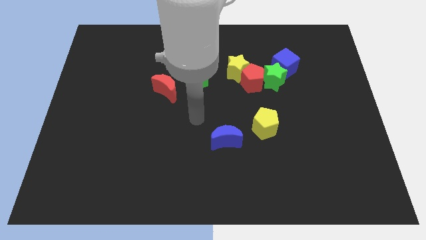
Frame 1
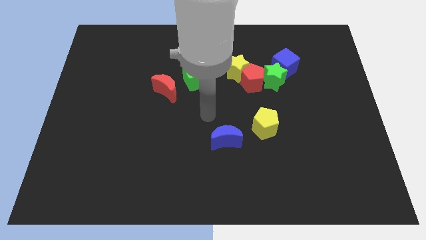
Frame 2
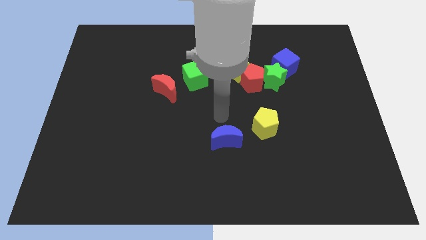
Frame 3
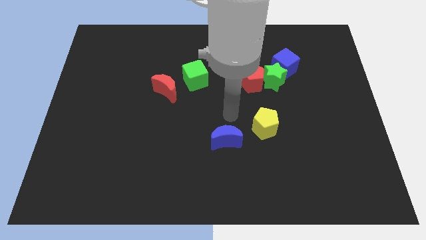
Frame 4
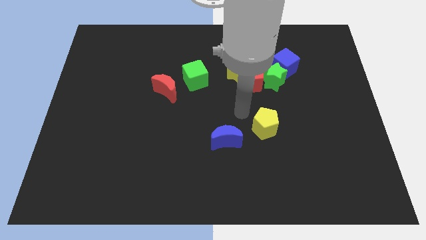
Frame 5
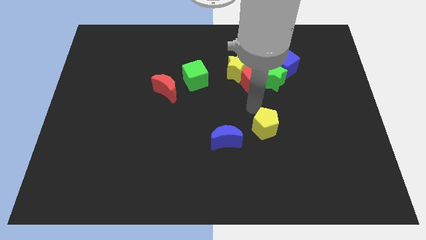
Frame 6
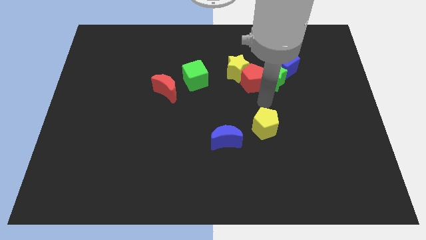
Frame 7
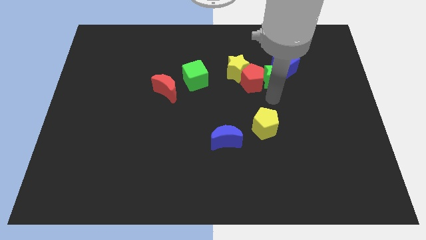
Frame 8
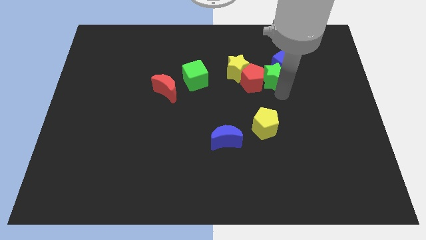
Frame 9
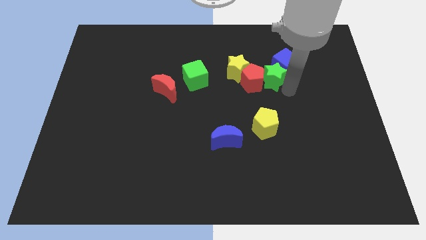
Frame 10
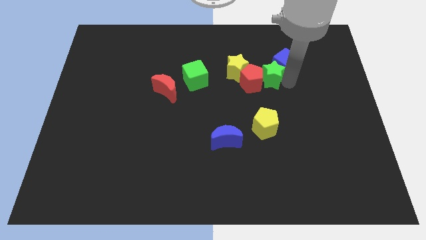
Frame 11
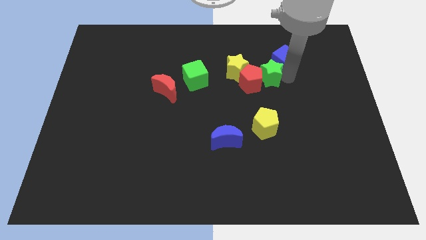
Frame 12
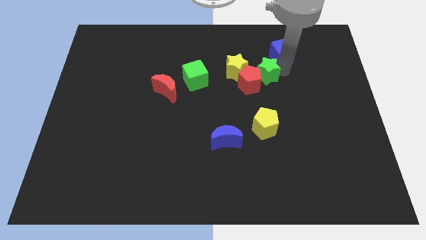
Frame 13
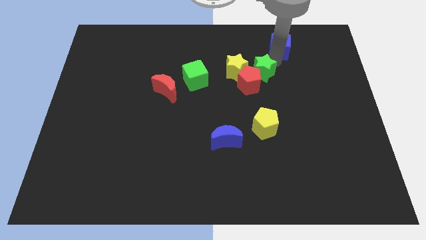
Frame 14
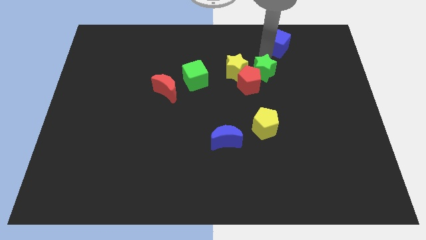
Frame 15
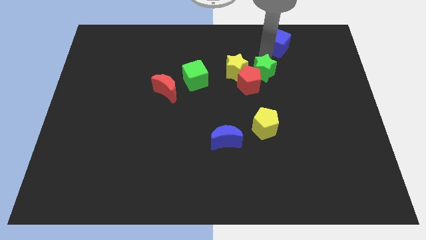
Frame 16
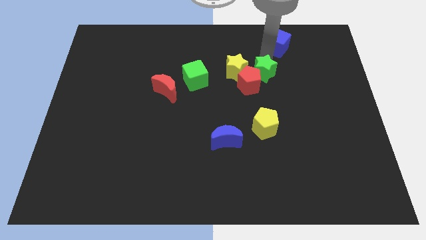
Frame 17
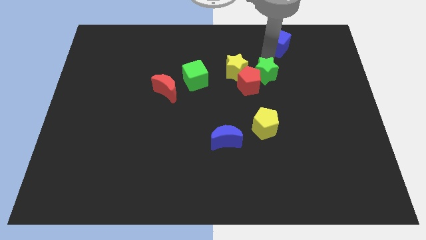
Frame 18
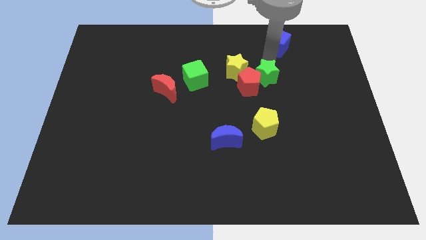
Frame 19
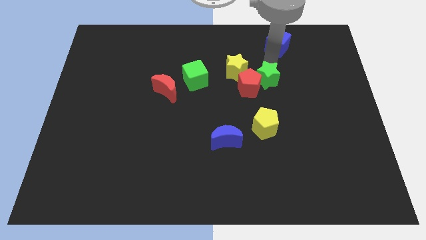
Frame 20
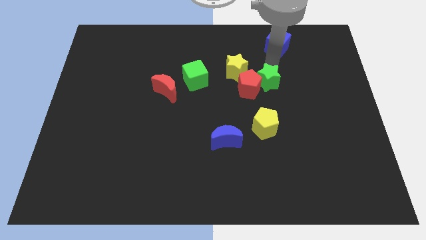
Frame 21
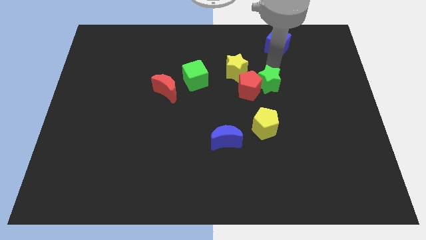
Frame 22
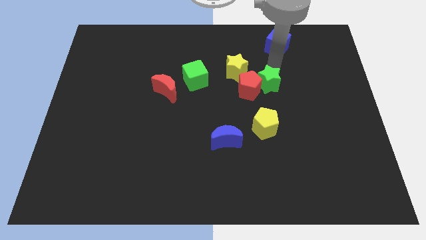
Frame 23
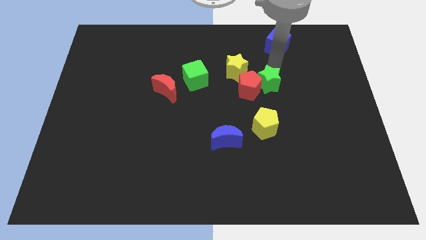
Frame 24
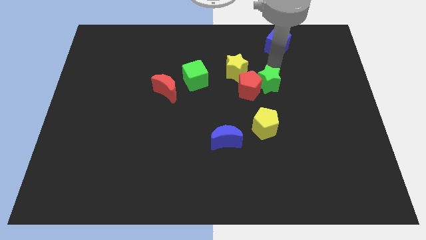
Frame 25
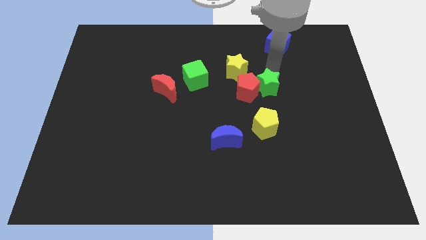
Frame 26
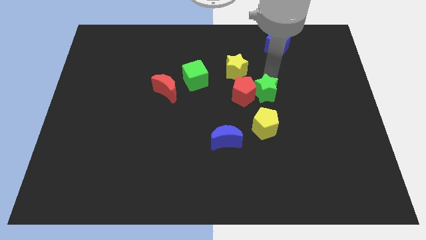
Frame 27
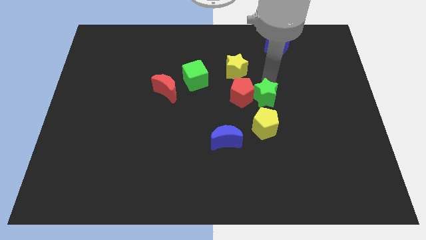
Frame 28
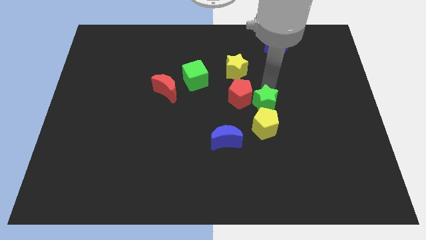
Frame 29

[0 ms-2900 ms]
slide the green star slightly downwards and left

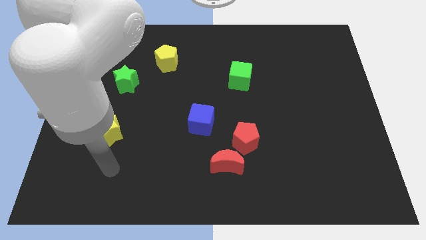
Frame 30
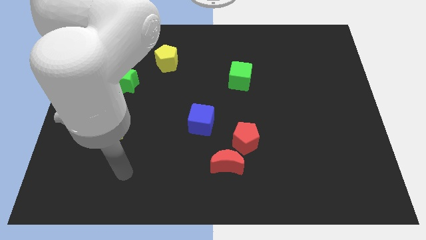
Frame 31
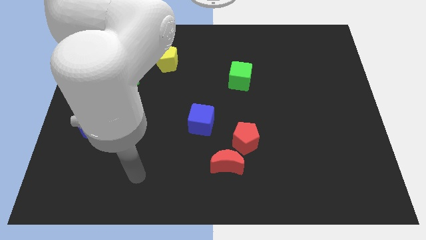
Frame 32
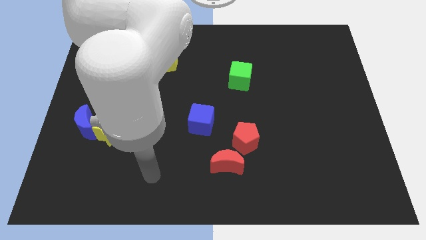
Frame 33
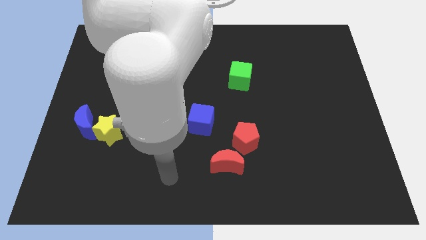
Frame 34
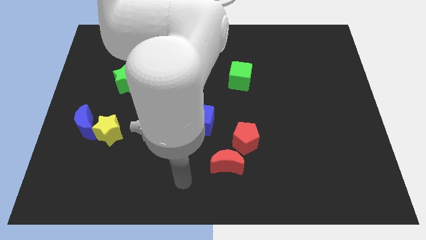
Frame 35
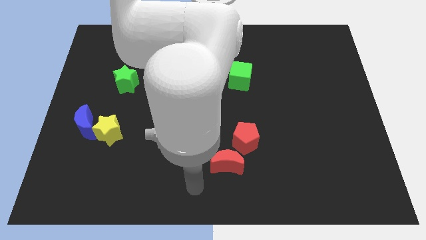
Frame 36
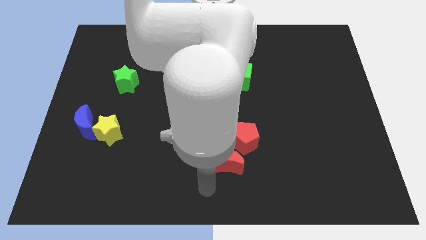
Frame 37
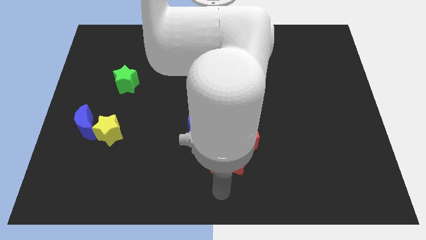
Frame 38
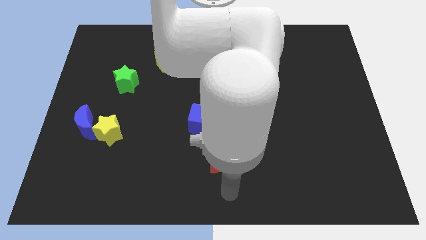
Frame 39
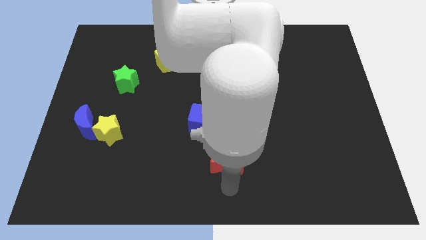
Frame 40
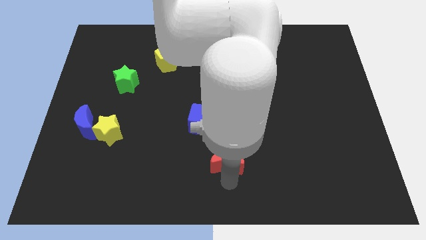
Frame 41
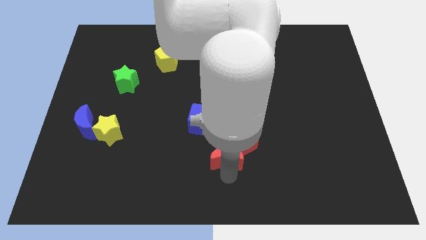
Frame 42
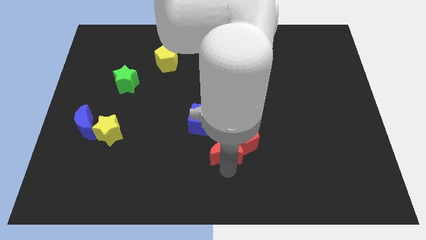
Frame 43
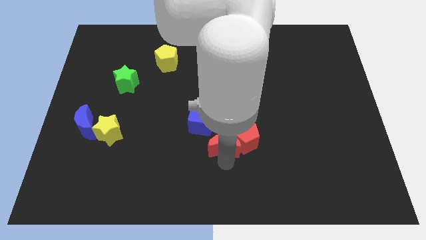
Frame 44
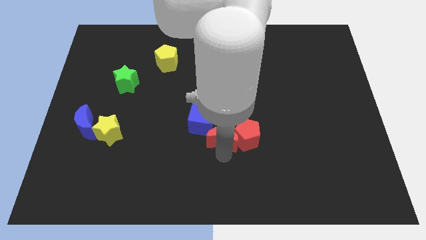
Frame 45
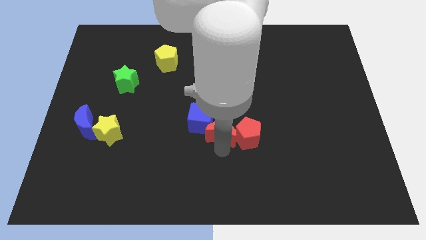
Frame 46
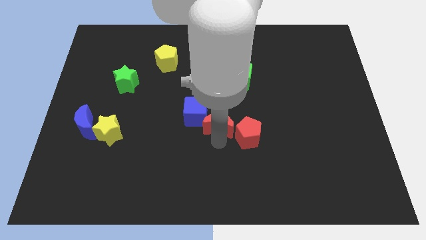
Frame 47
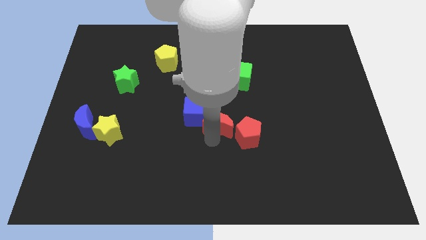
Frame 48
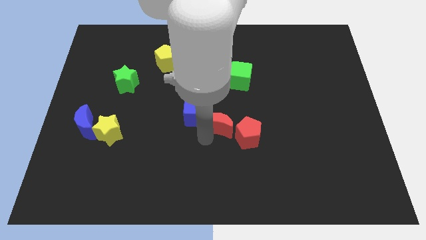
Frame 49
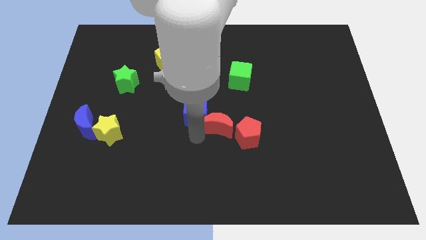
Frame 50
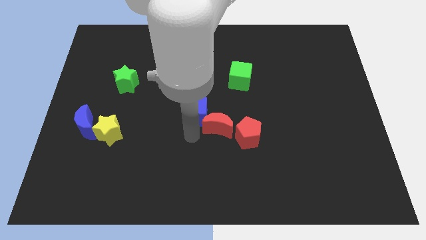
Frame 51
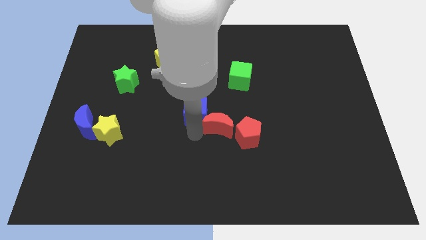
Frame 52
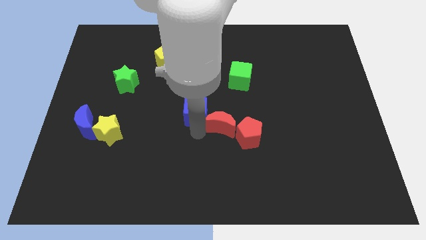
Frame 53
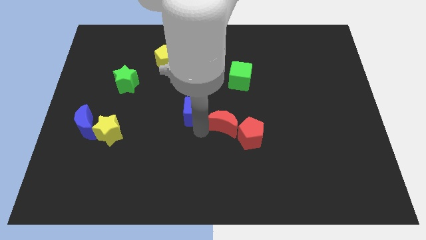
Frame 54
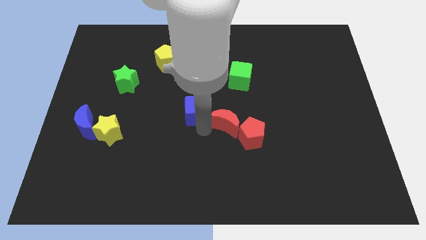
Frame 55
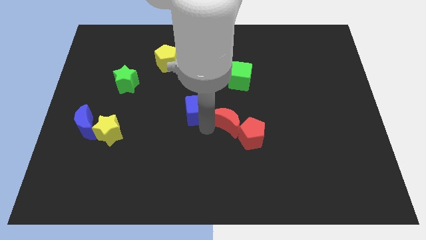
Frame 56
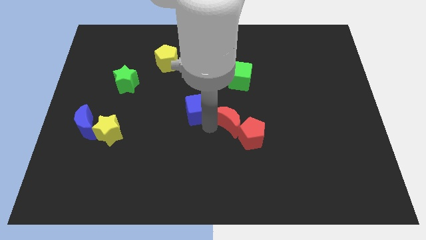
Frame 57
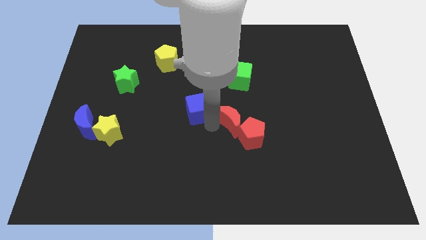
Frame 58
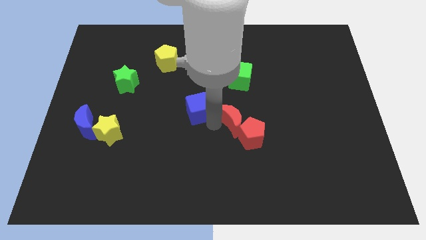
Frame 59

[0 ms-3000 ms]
slightly move the red moon upwards and to the right

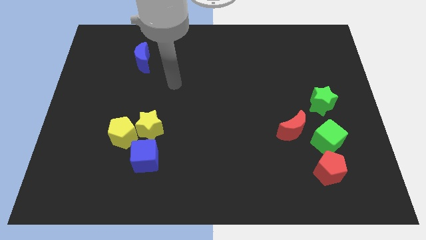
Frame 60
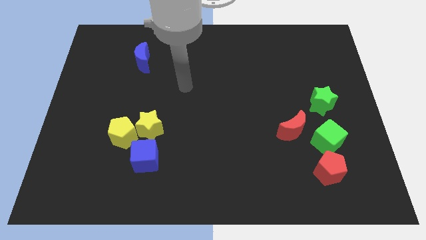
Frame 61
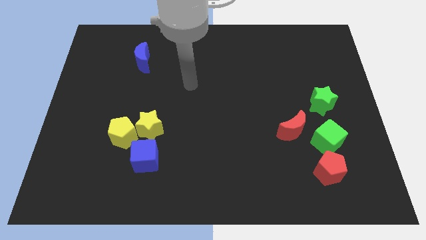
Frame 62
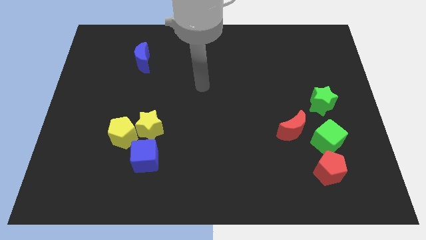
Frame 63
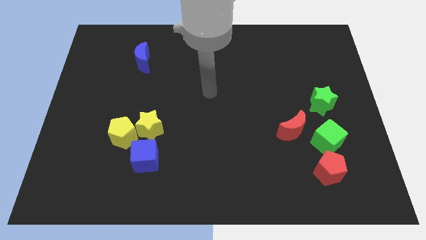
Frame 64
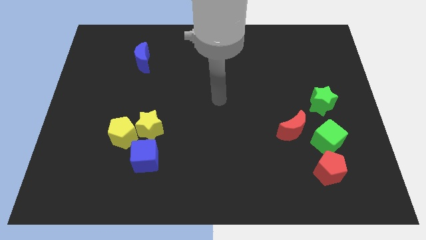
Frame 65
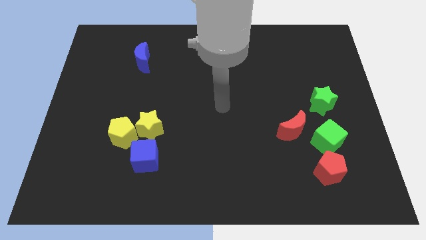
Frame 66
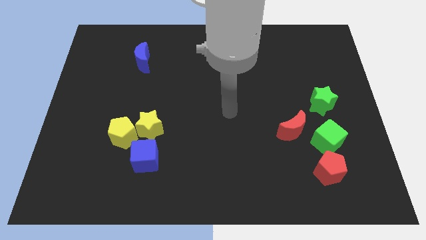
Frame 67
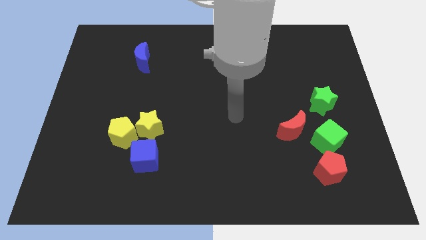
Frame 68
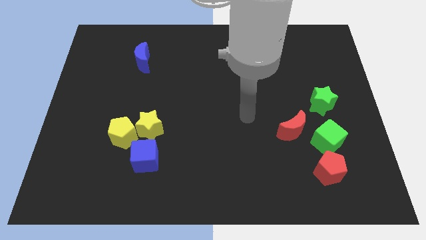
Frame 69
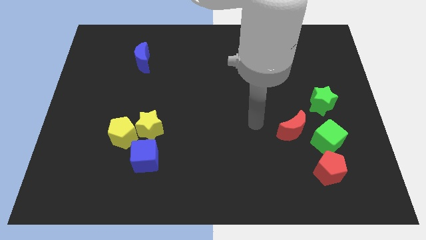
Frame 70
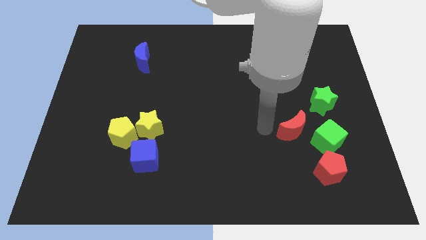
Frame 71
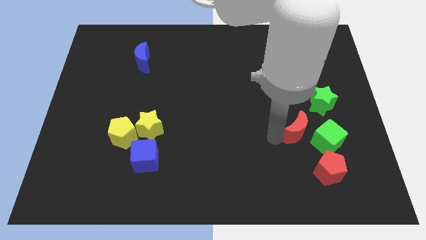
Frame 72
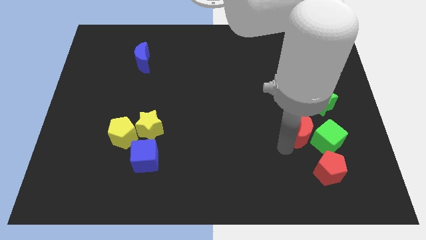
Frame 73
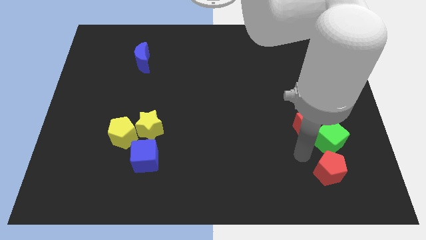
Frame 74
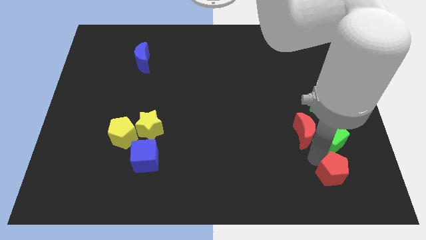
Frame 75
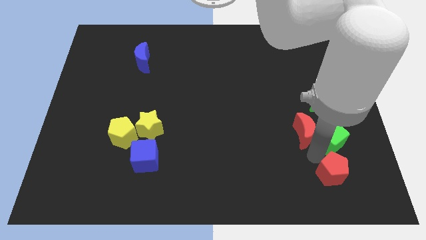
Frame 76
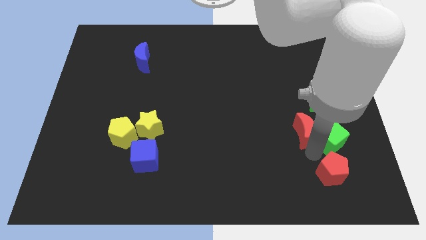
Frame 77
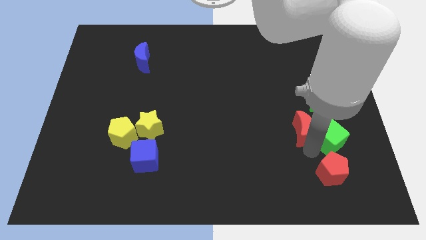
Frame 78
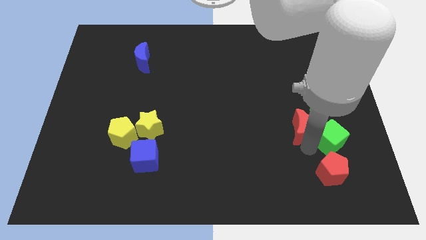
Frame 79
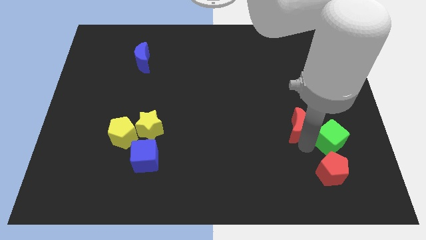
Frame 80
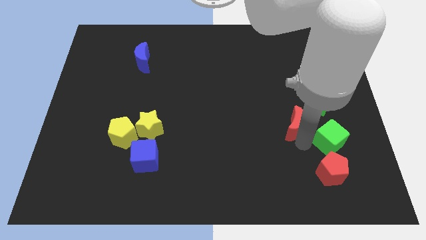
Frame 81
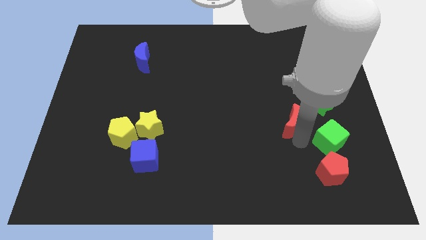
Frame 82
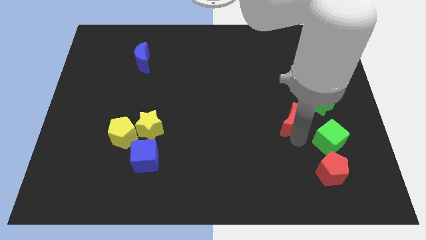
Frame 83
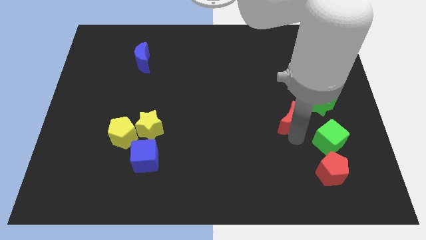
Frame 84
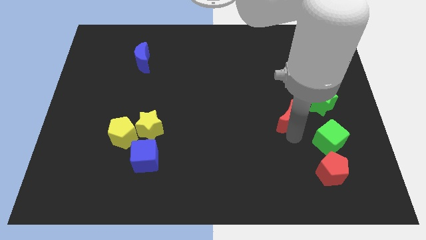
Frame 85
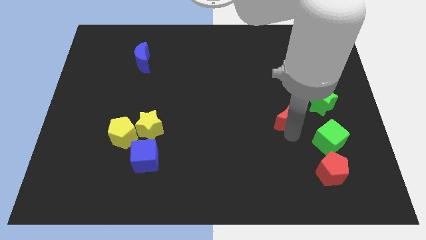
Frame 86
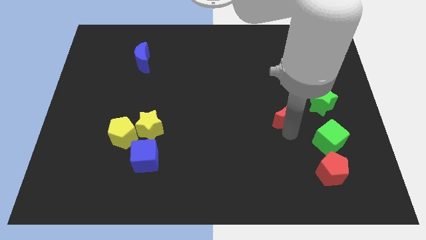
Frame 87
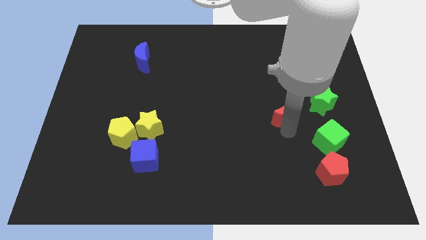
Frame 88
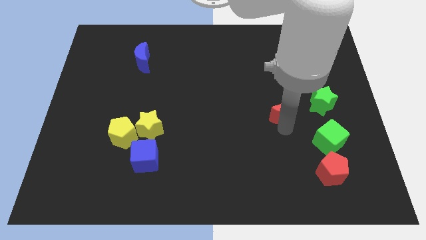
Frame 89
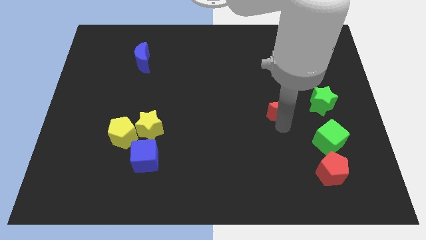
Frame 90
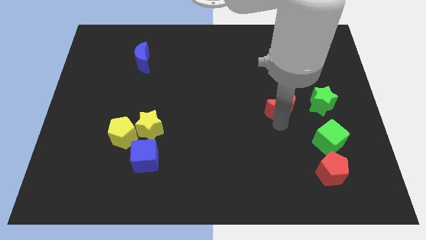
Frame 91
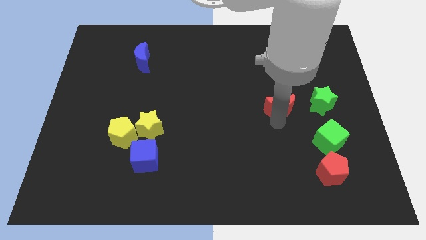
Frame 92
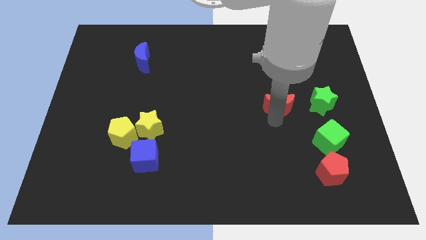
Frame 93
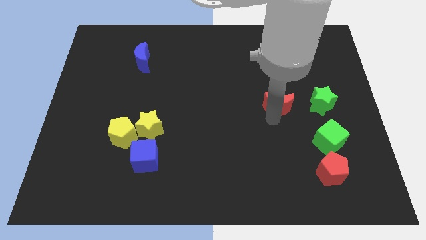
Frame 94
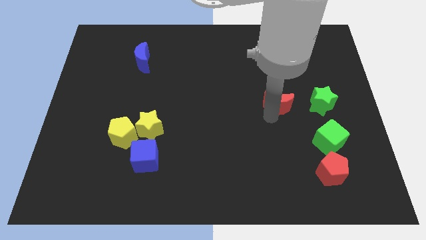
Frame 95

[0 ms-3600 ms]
slide the red moon a little upwards
